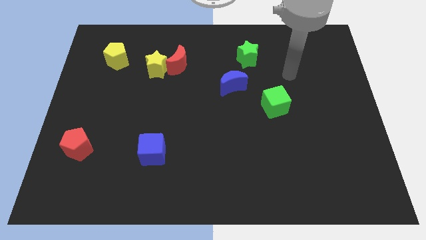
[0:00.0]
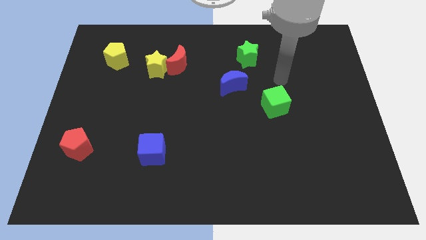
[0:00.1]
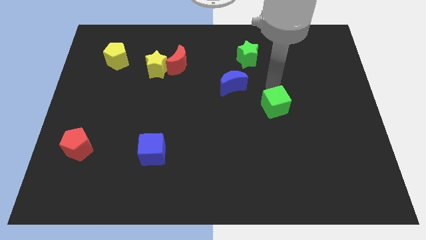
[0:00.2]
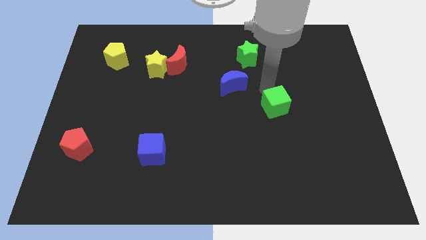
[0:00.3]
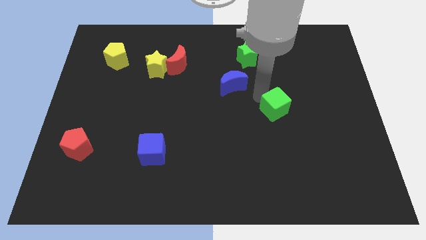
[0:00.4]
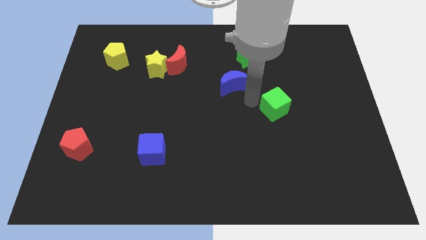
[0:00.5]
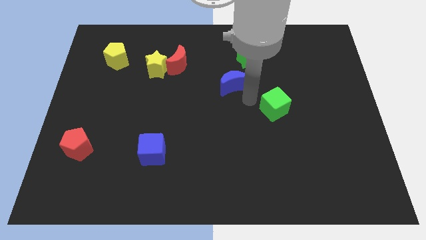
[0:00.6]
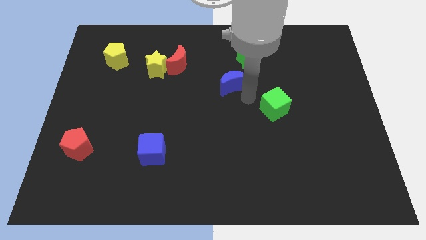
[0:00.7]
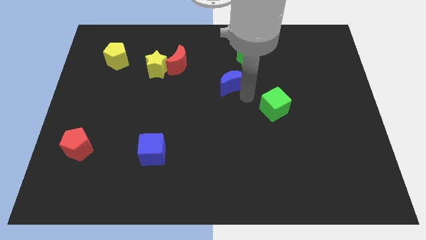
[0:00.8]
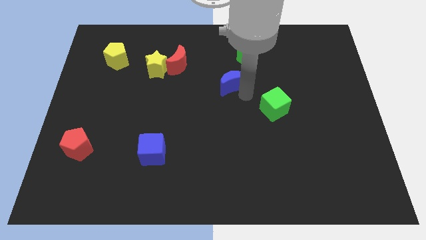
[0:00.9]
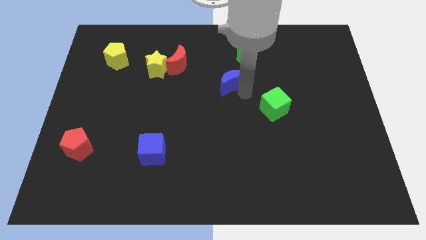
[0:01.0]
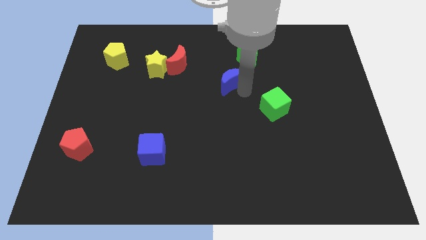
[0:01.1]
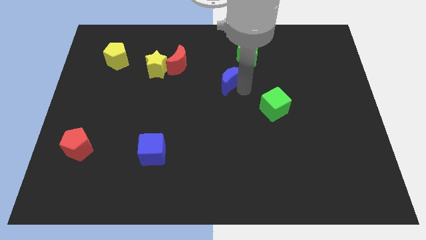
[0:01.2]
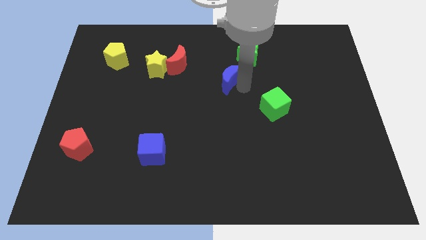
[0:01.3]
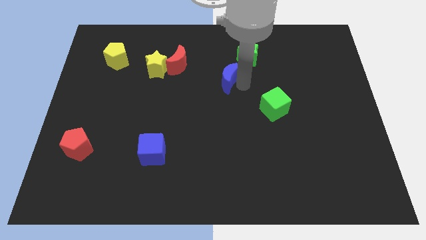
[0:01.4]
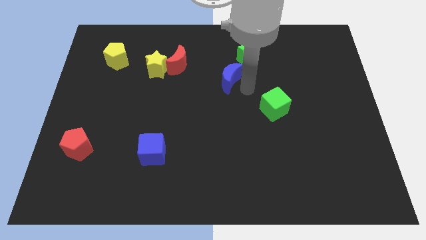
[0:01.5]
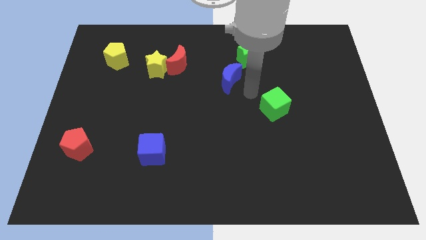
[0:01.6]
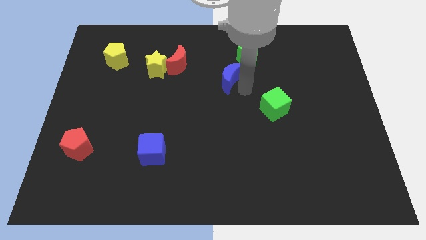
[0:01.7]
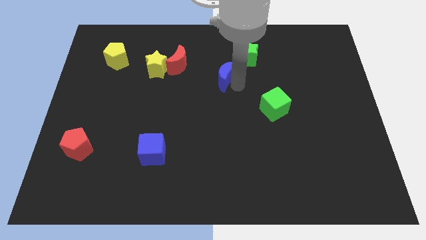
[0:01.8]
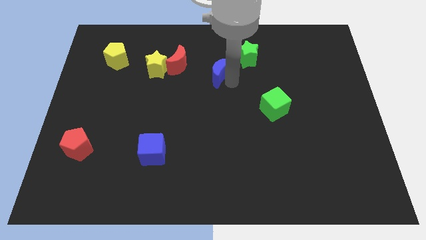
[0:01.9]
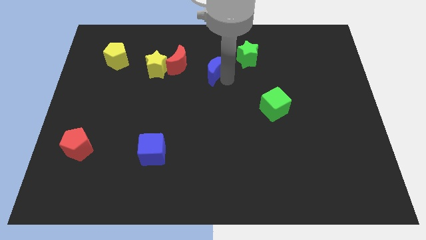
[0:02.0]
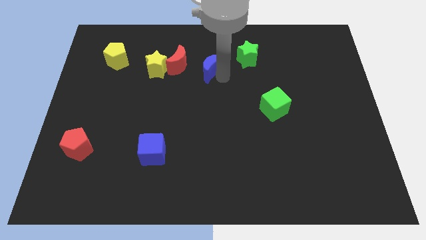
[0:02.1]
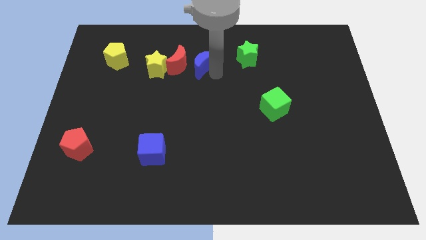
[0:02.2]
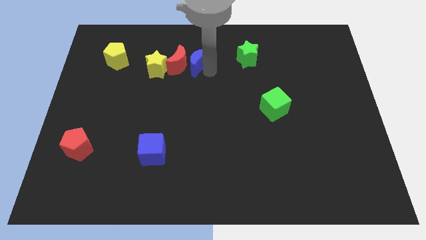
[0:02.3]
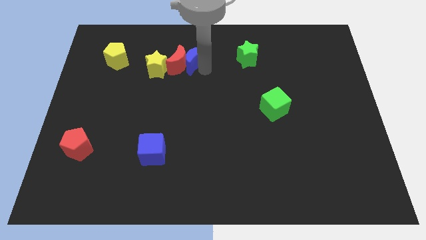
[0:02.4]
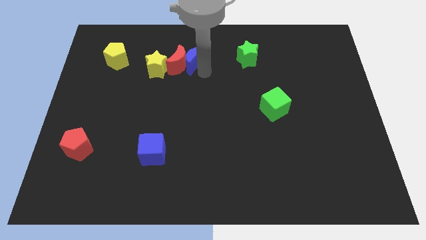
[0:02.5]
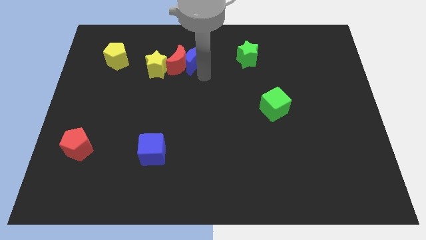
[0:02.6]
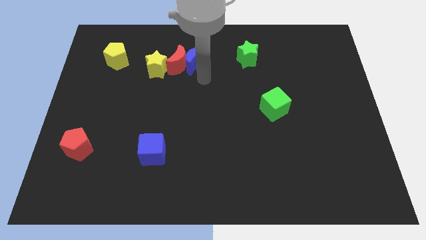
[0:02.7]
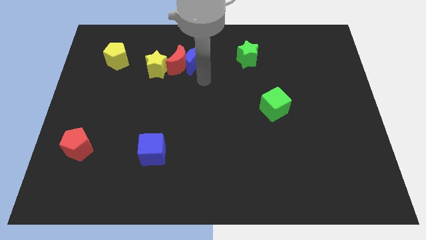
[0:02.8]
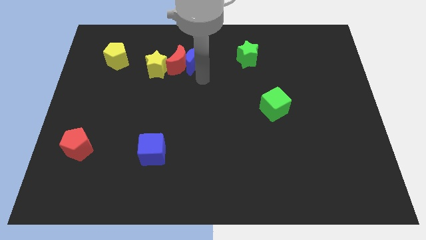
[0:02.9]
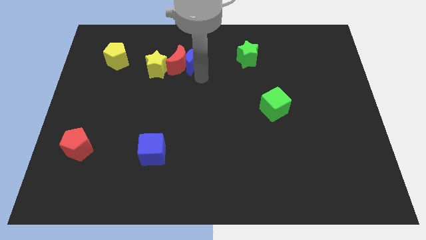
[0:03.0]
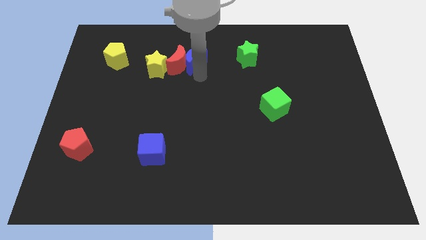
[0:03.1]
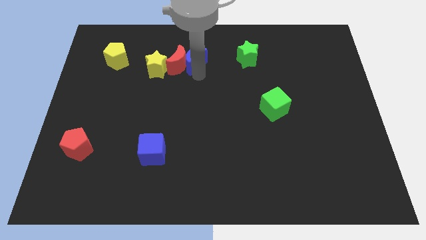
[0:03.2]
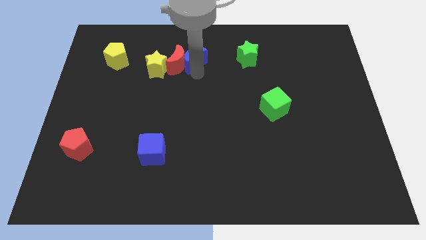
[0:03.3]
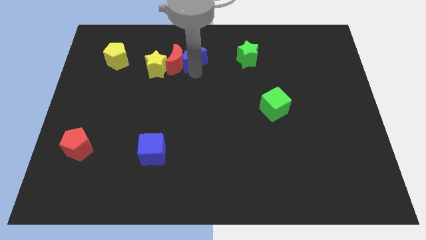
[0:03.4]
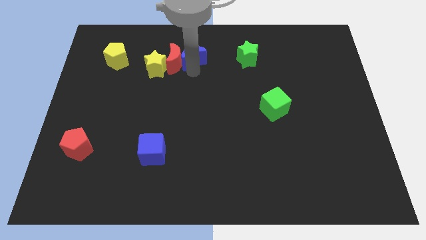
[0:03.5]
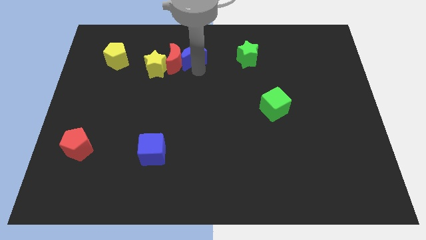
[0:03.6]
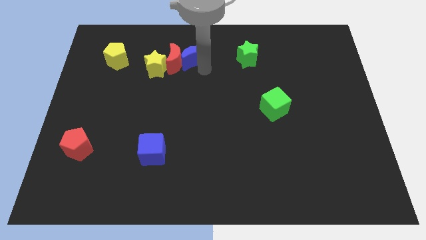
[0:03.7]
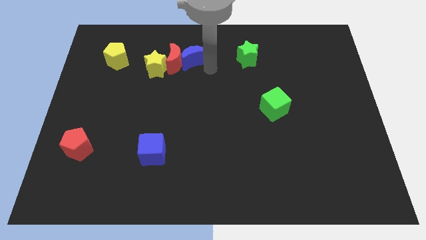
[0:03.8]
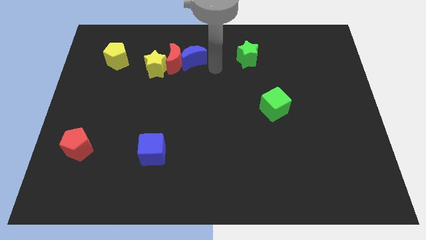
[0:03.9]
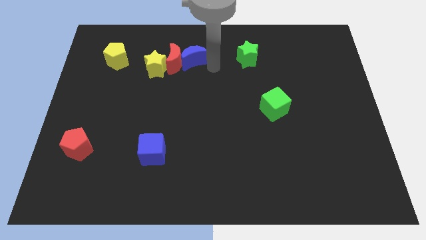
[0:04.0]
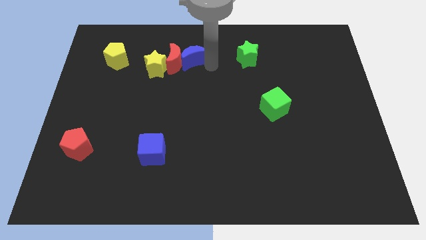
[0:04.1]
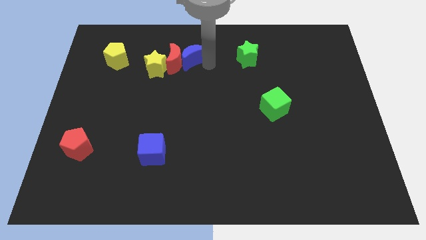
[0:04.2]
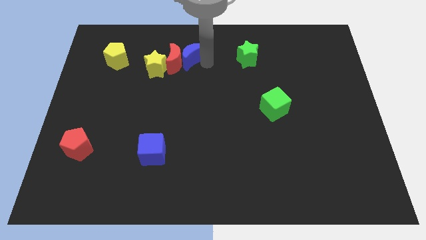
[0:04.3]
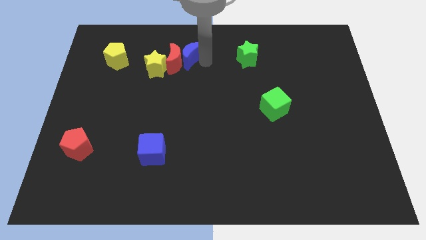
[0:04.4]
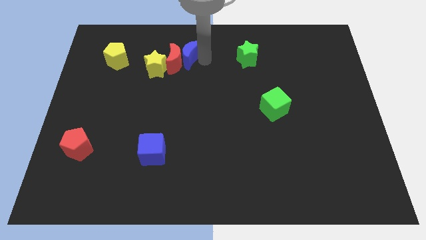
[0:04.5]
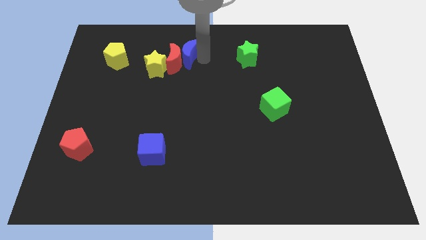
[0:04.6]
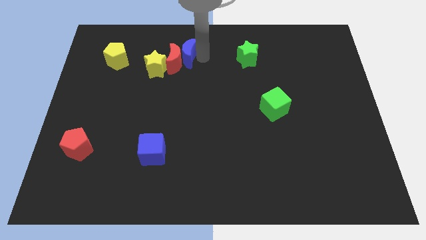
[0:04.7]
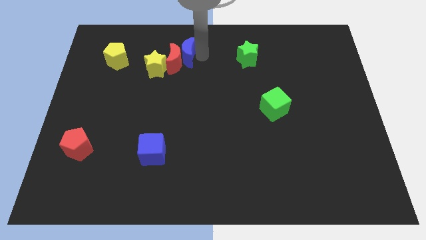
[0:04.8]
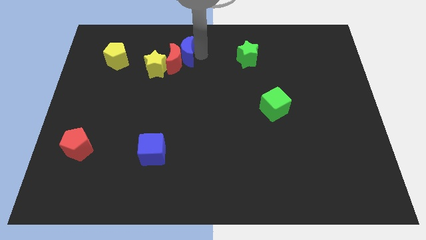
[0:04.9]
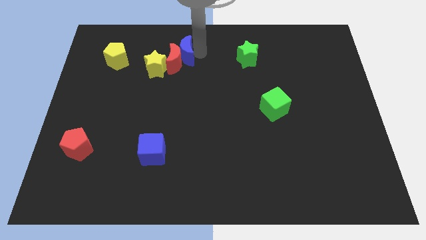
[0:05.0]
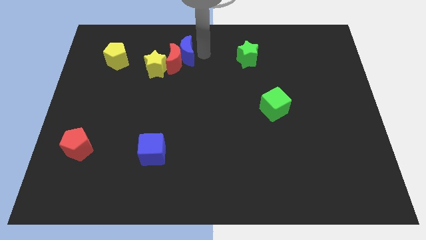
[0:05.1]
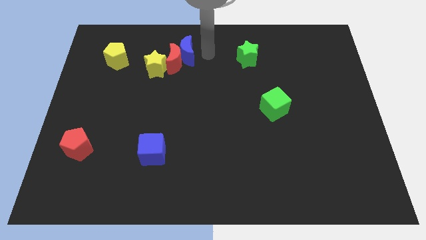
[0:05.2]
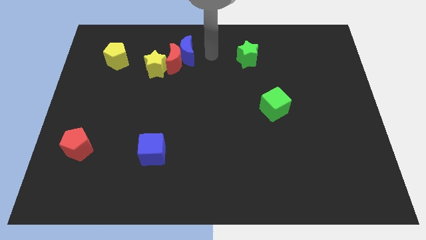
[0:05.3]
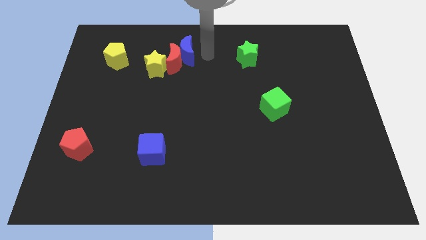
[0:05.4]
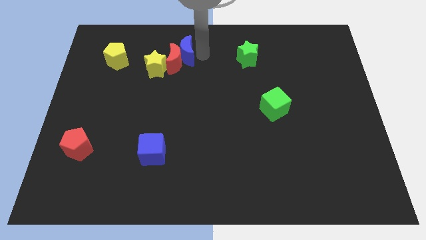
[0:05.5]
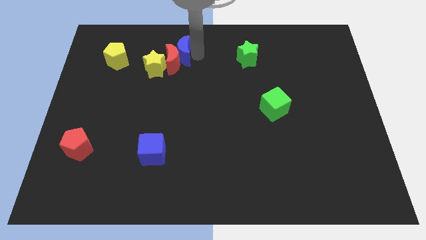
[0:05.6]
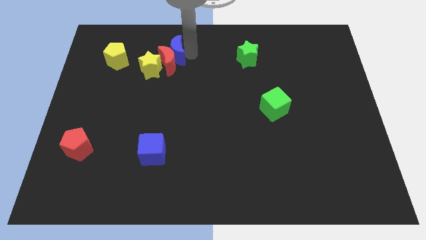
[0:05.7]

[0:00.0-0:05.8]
put the blue moon just right of the yellow pentagon

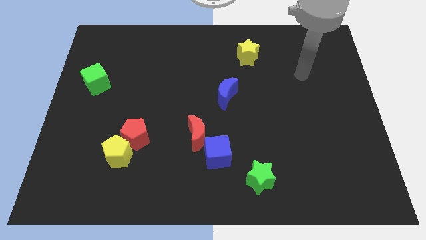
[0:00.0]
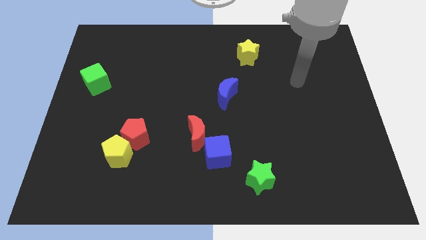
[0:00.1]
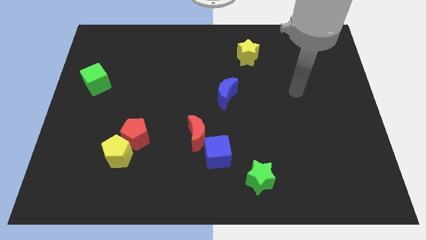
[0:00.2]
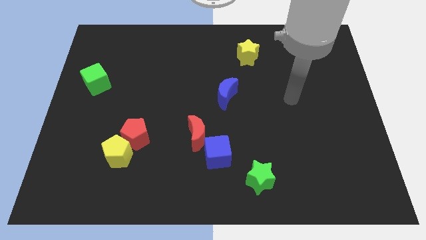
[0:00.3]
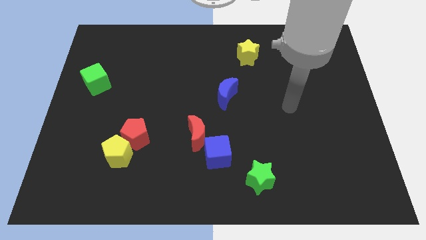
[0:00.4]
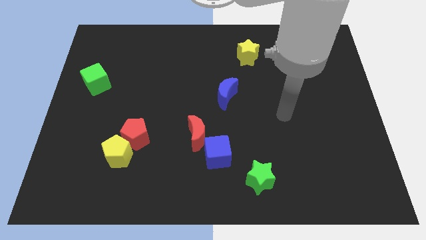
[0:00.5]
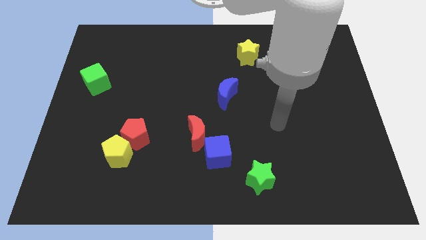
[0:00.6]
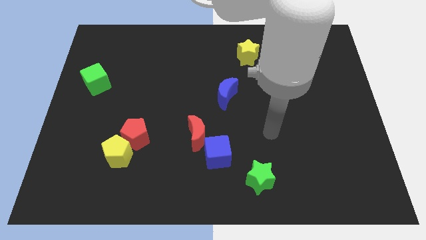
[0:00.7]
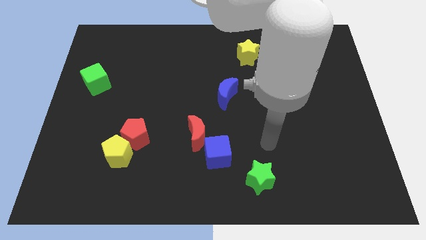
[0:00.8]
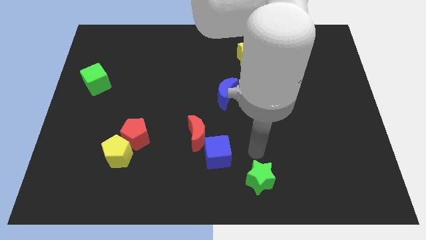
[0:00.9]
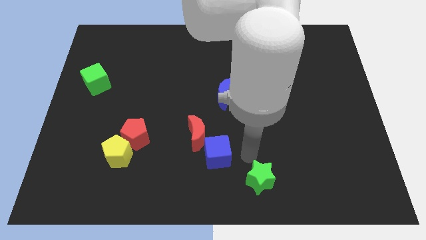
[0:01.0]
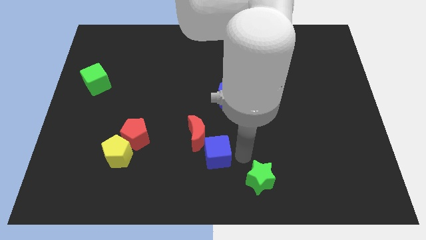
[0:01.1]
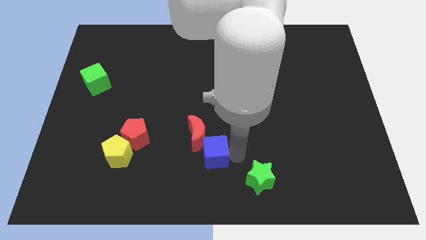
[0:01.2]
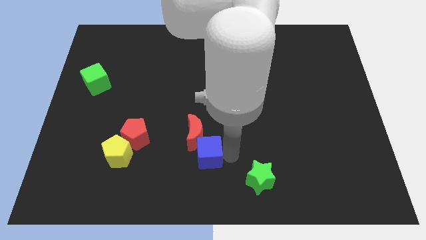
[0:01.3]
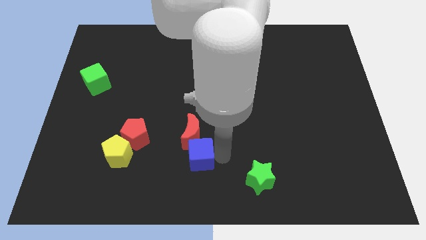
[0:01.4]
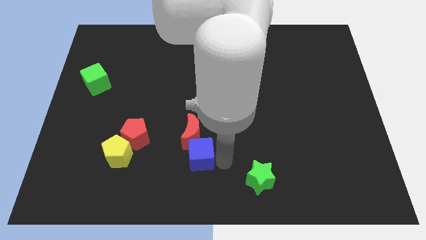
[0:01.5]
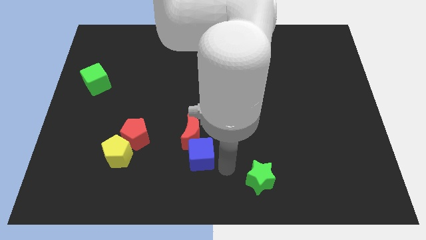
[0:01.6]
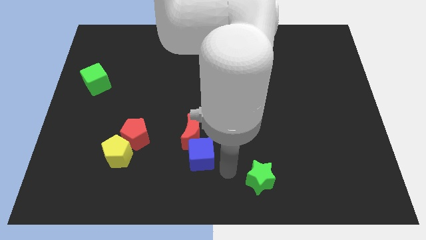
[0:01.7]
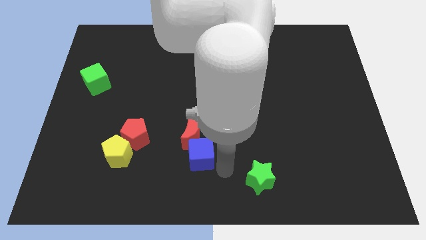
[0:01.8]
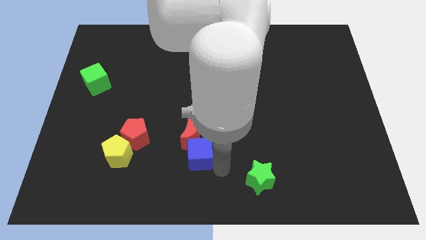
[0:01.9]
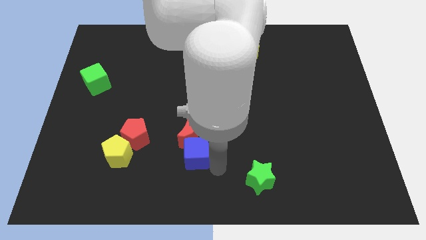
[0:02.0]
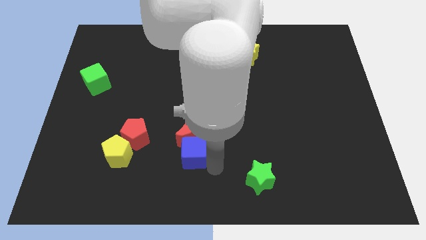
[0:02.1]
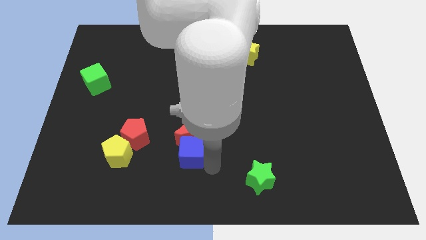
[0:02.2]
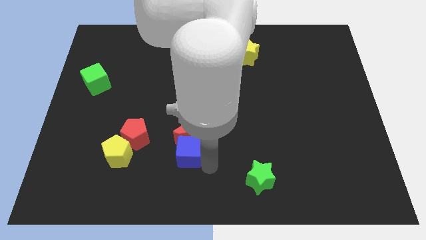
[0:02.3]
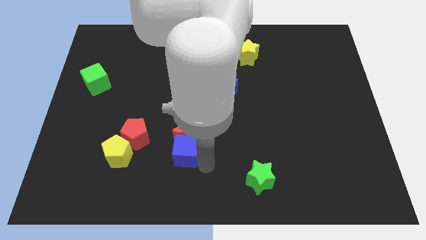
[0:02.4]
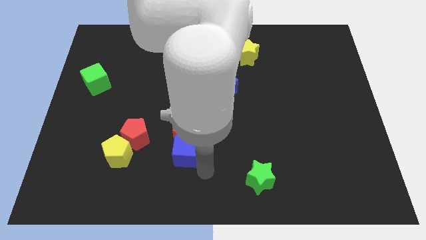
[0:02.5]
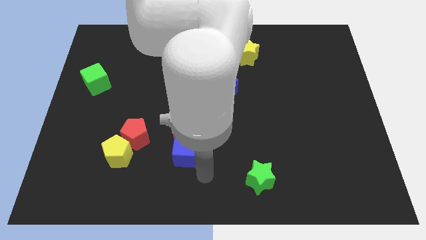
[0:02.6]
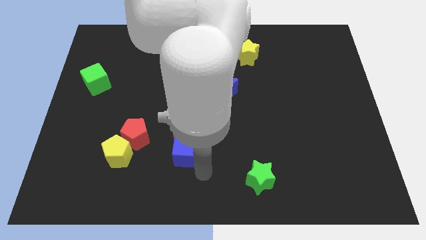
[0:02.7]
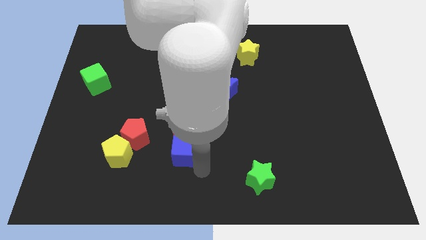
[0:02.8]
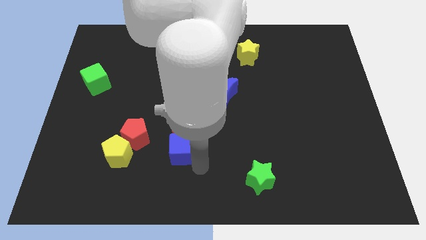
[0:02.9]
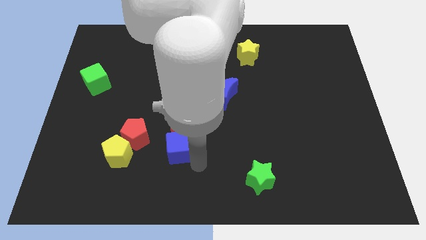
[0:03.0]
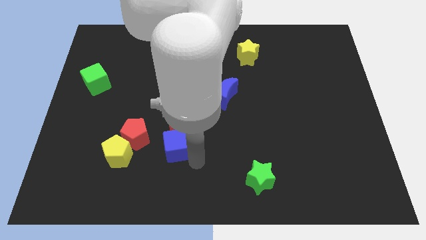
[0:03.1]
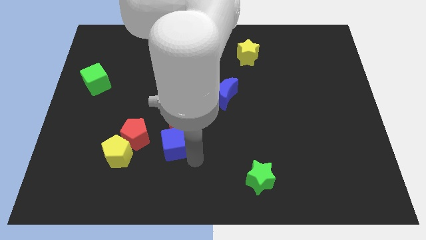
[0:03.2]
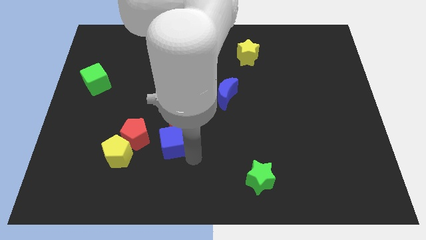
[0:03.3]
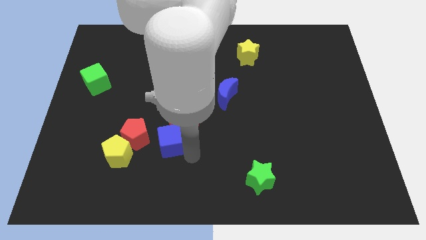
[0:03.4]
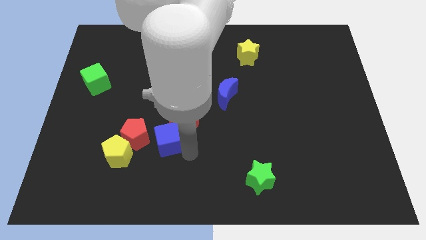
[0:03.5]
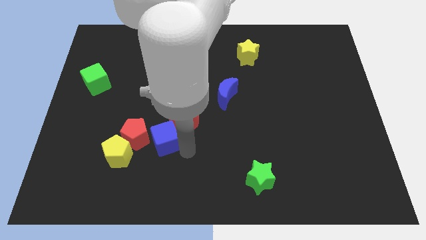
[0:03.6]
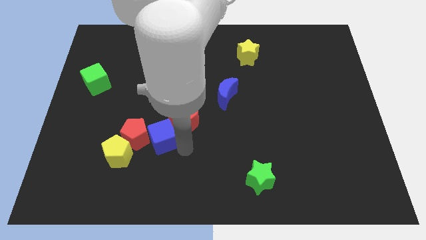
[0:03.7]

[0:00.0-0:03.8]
move the blue cube diagonally up and to the right of the red pentagon
